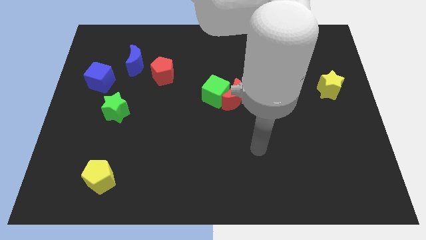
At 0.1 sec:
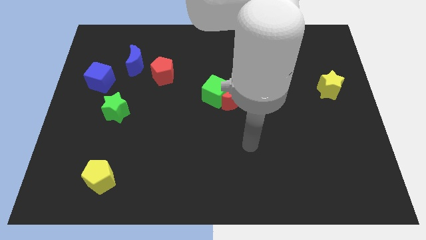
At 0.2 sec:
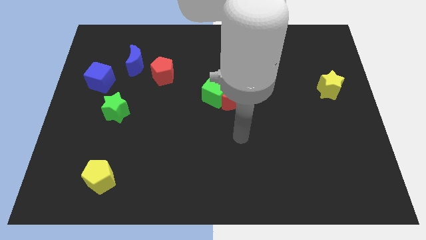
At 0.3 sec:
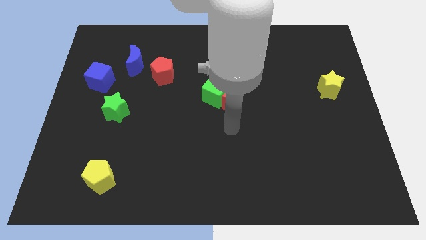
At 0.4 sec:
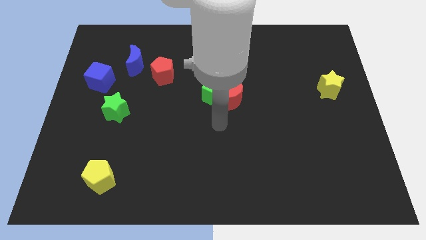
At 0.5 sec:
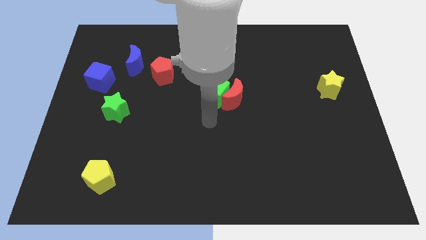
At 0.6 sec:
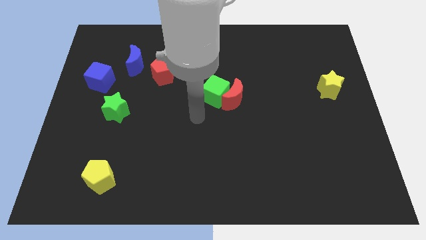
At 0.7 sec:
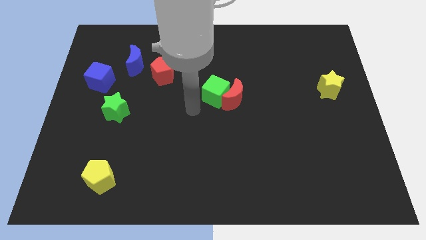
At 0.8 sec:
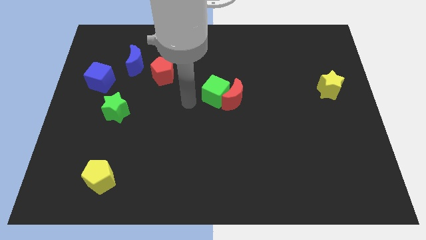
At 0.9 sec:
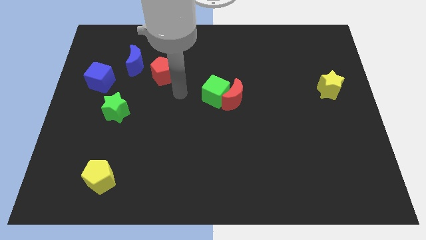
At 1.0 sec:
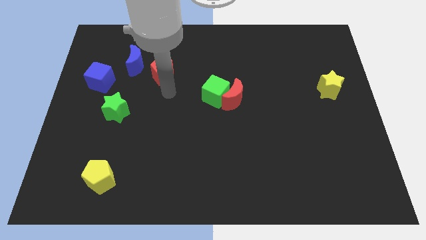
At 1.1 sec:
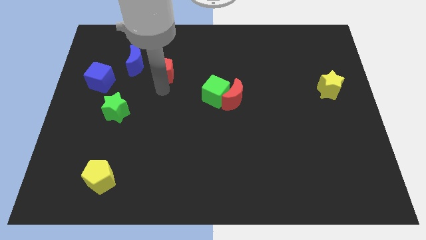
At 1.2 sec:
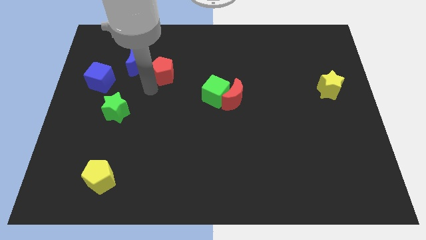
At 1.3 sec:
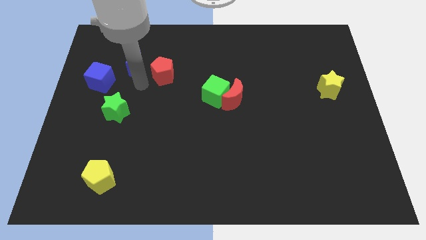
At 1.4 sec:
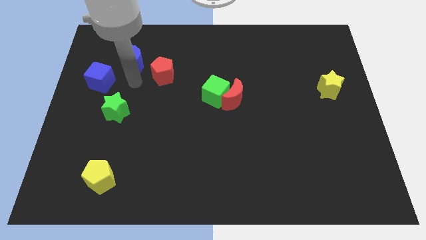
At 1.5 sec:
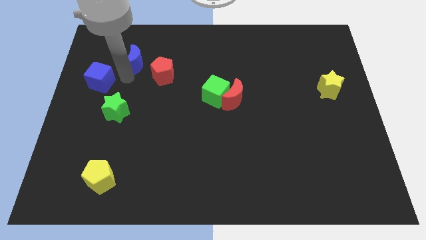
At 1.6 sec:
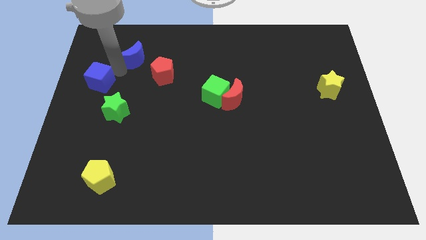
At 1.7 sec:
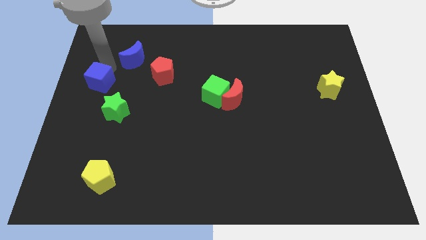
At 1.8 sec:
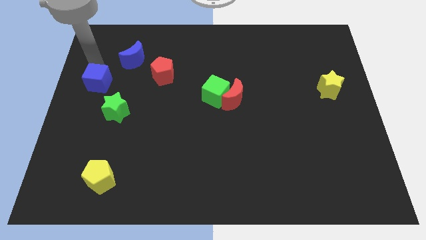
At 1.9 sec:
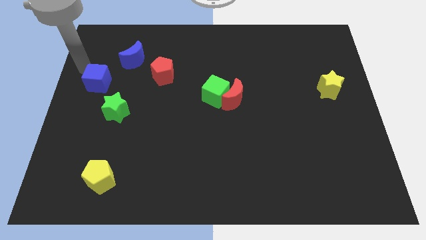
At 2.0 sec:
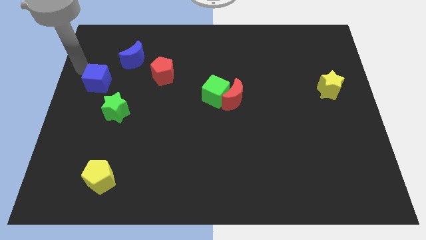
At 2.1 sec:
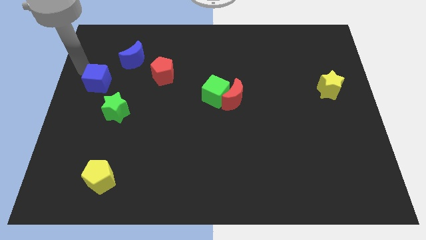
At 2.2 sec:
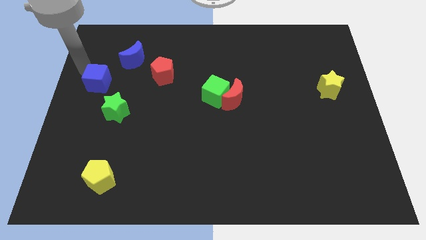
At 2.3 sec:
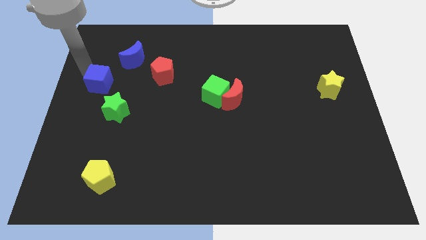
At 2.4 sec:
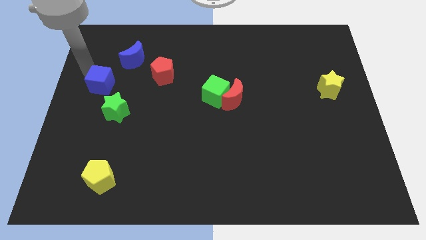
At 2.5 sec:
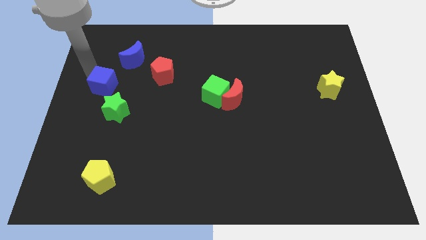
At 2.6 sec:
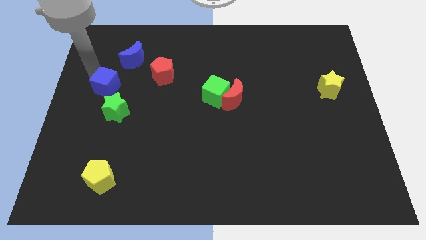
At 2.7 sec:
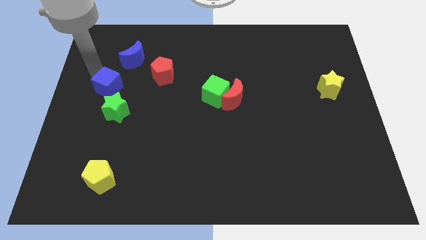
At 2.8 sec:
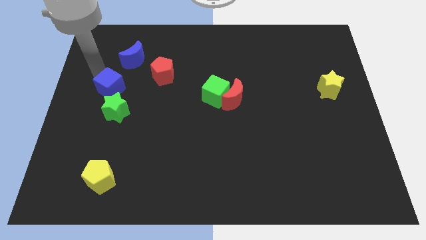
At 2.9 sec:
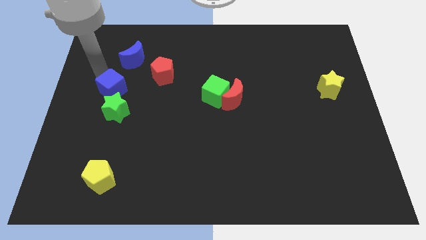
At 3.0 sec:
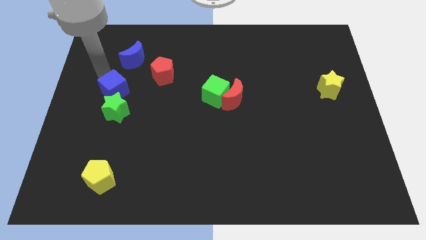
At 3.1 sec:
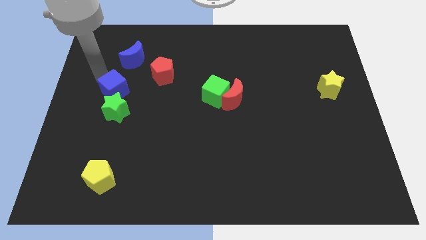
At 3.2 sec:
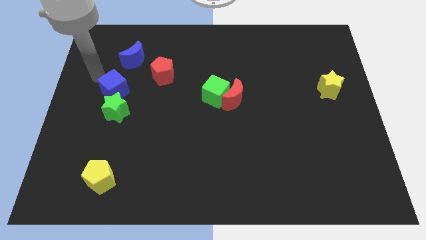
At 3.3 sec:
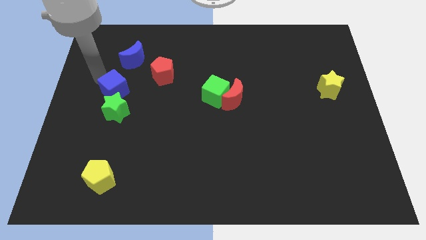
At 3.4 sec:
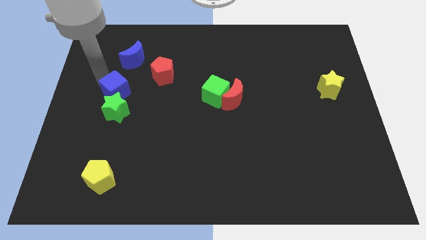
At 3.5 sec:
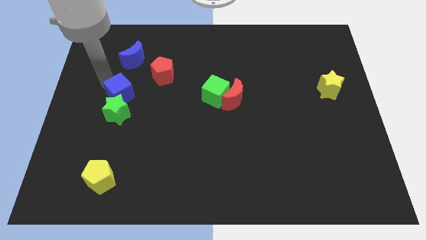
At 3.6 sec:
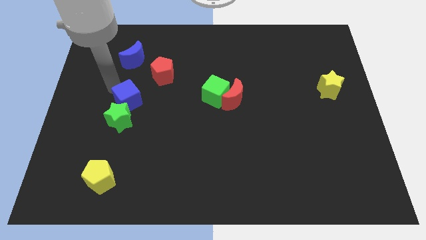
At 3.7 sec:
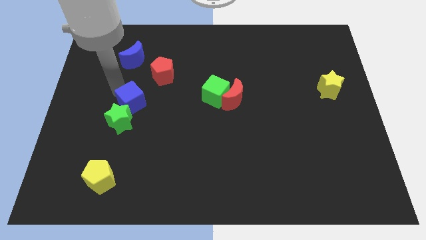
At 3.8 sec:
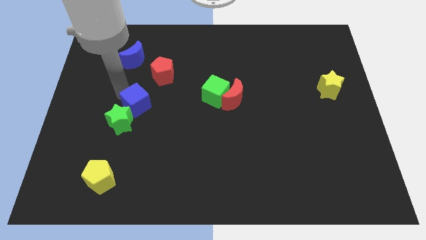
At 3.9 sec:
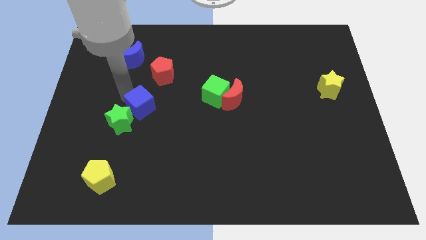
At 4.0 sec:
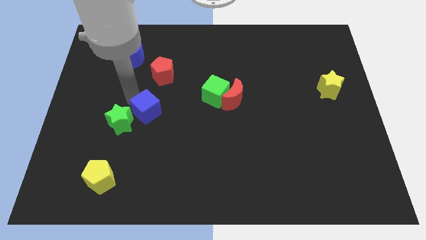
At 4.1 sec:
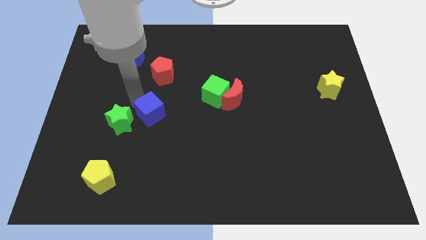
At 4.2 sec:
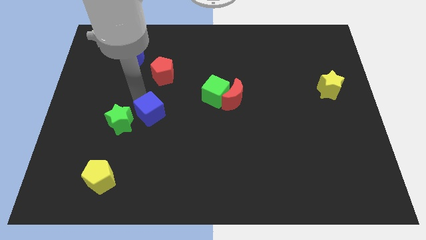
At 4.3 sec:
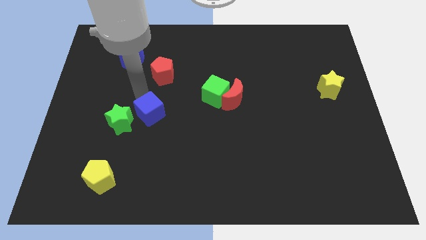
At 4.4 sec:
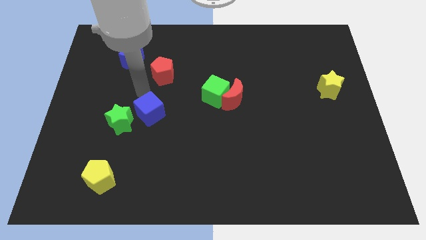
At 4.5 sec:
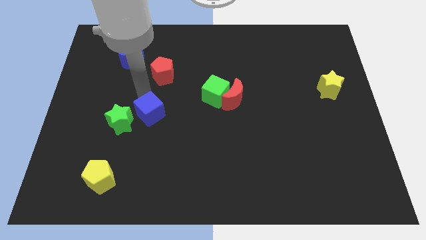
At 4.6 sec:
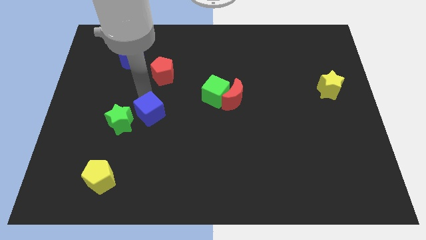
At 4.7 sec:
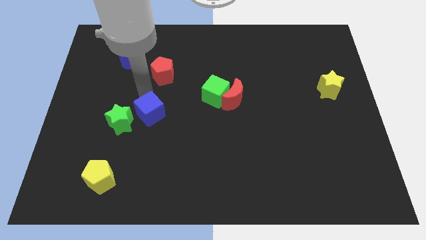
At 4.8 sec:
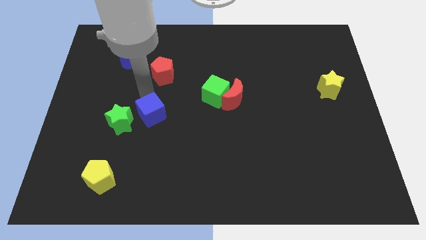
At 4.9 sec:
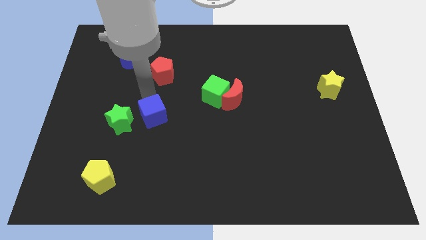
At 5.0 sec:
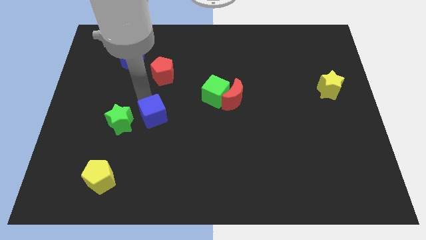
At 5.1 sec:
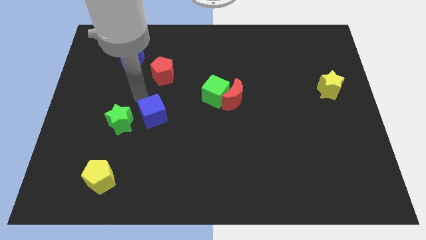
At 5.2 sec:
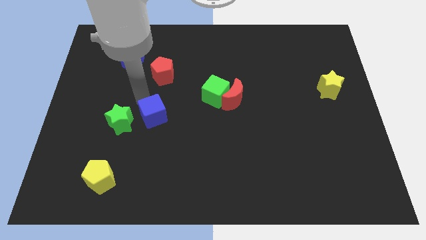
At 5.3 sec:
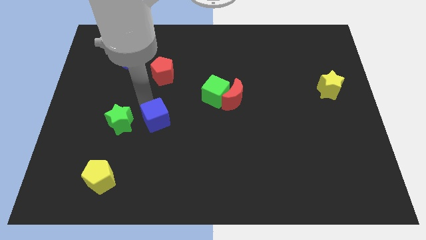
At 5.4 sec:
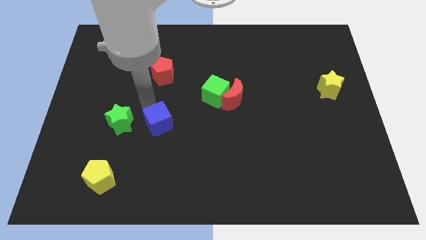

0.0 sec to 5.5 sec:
push the blue cube down and to the right

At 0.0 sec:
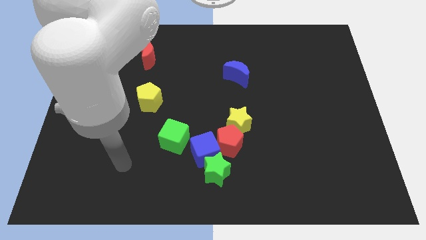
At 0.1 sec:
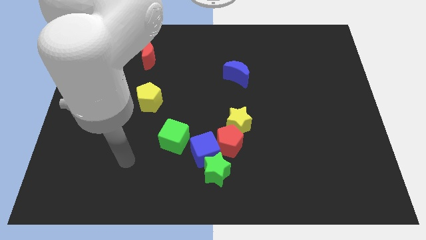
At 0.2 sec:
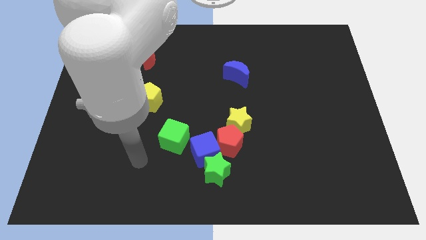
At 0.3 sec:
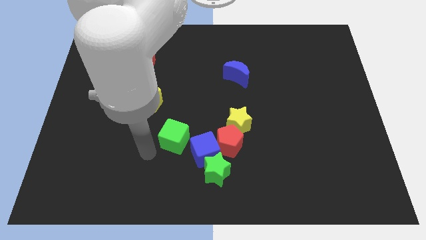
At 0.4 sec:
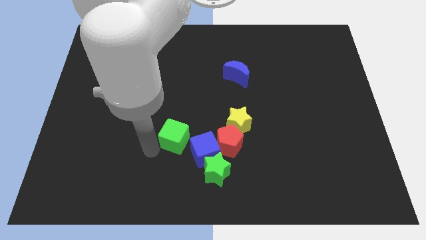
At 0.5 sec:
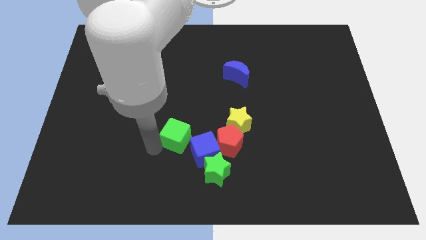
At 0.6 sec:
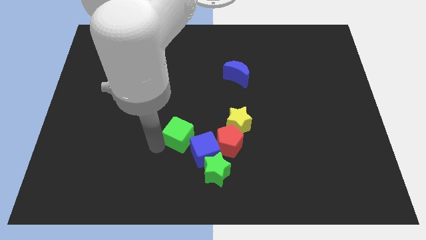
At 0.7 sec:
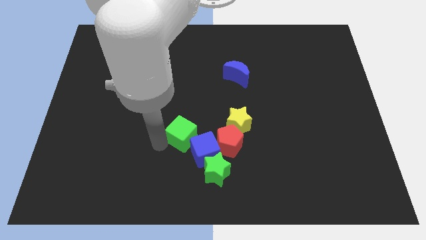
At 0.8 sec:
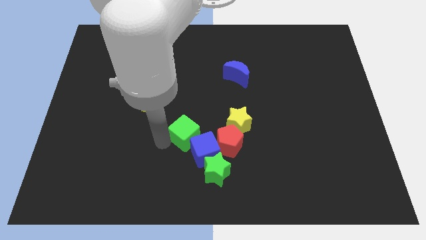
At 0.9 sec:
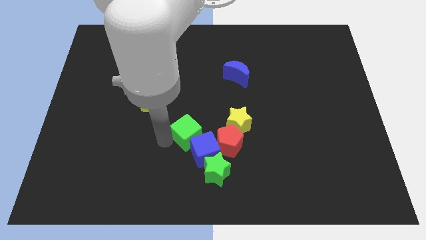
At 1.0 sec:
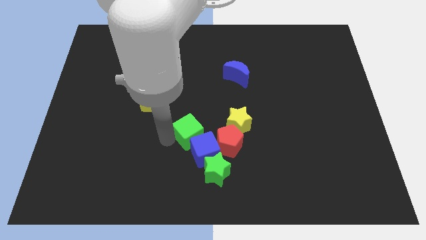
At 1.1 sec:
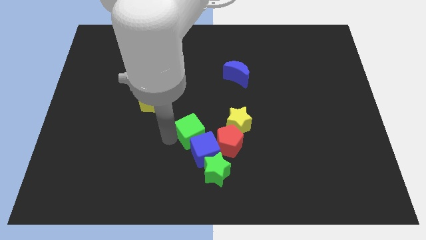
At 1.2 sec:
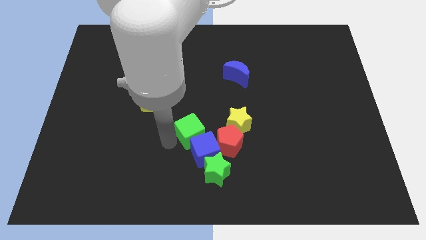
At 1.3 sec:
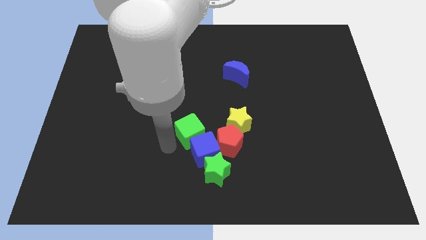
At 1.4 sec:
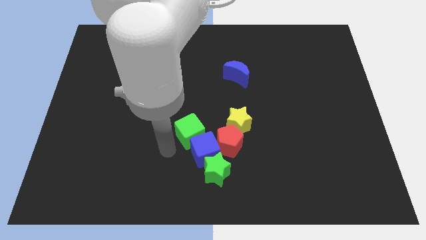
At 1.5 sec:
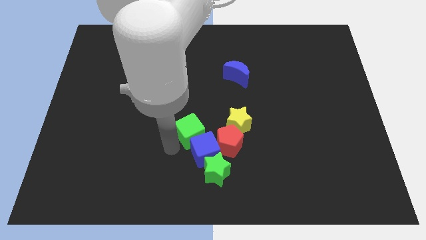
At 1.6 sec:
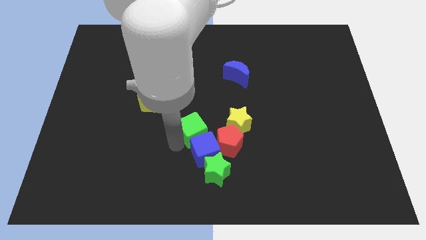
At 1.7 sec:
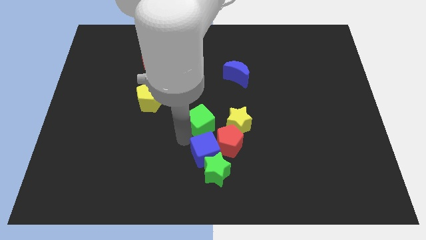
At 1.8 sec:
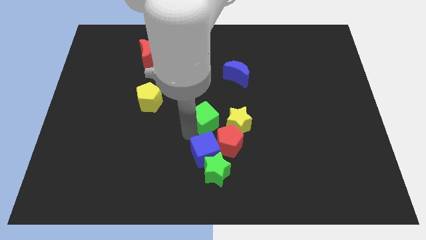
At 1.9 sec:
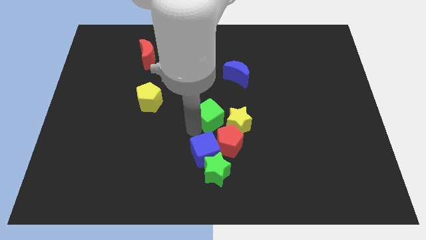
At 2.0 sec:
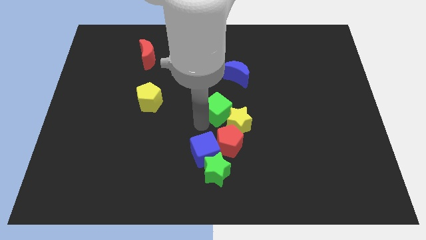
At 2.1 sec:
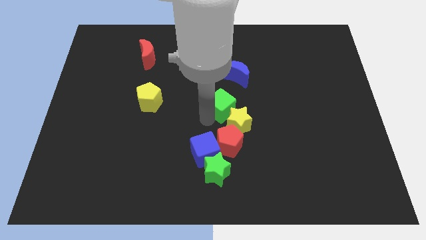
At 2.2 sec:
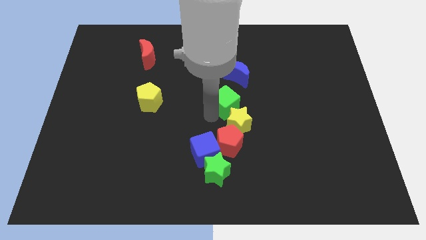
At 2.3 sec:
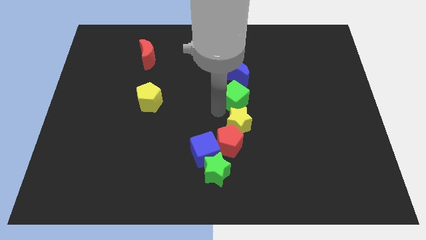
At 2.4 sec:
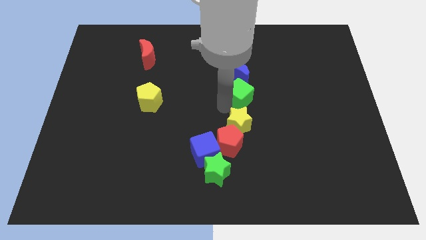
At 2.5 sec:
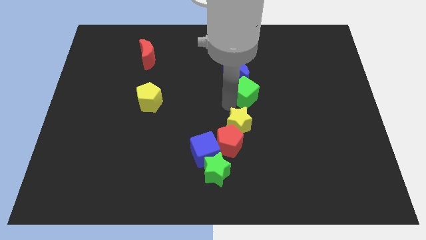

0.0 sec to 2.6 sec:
move the green cube up and to the right
